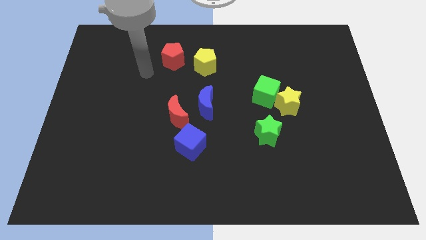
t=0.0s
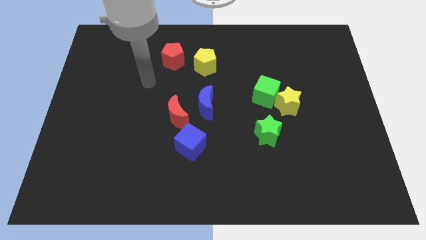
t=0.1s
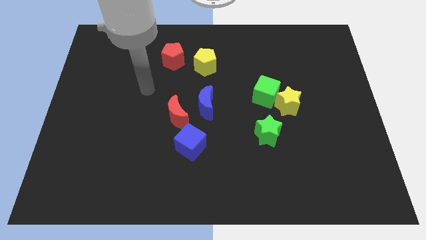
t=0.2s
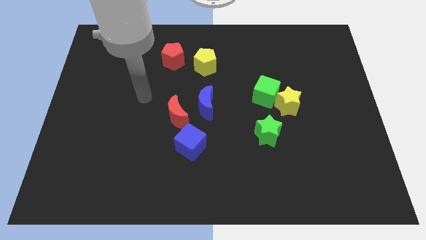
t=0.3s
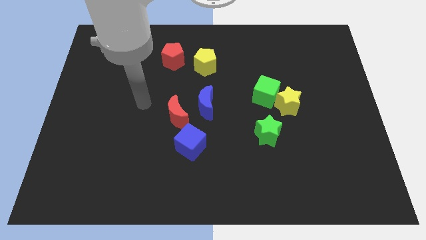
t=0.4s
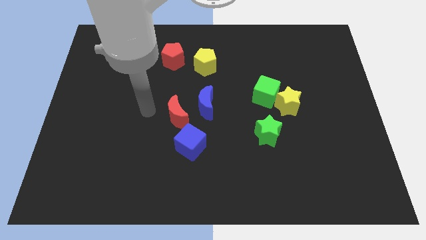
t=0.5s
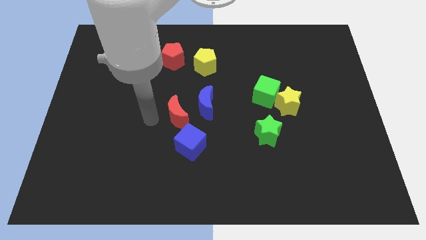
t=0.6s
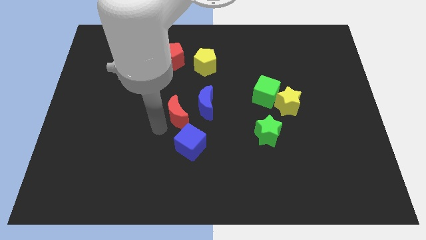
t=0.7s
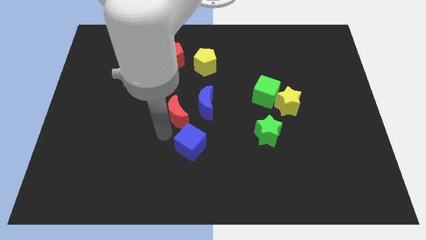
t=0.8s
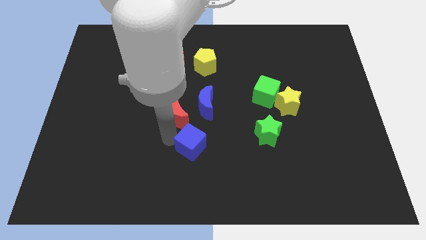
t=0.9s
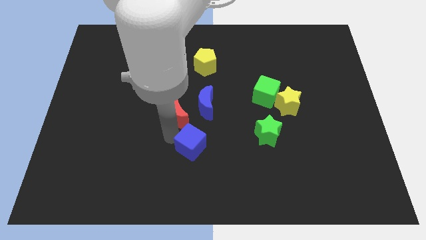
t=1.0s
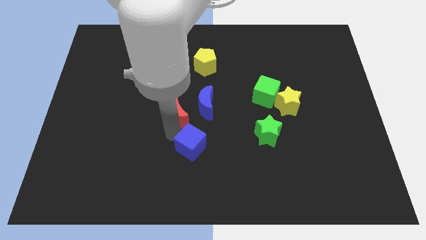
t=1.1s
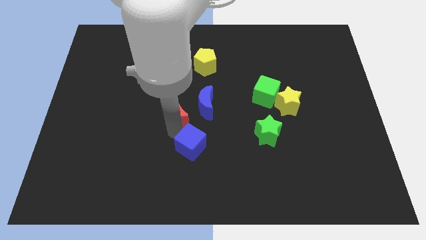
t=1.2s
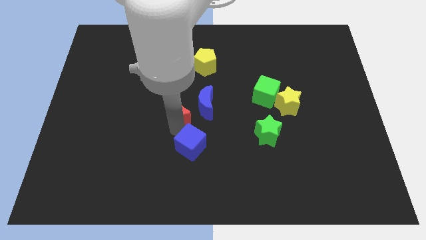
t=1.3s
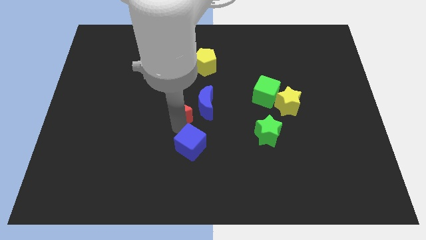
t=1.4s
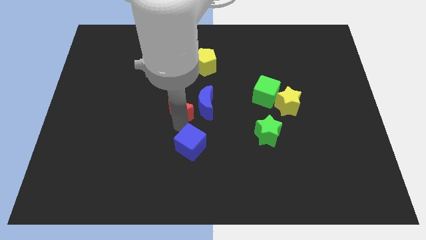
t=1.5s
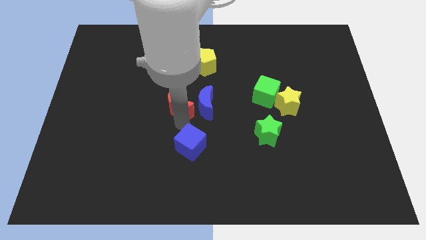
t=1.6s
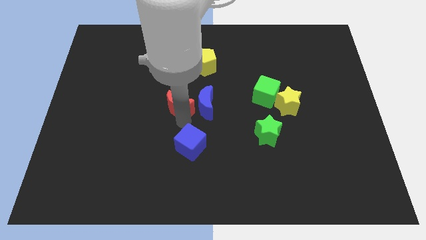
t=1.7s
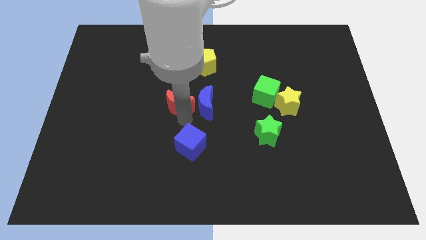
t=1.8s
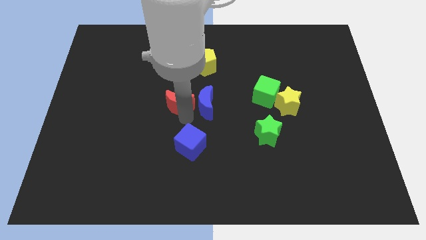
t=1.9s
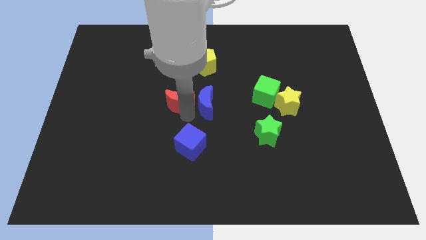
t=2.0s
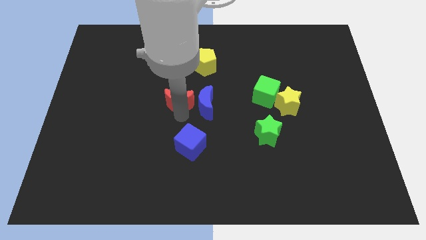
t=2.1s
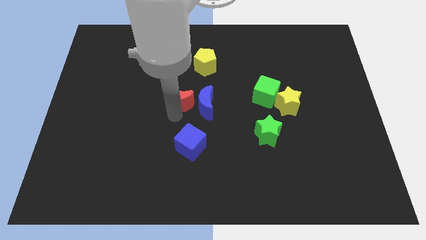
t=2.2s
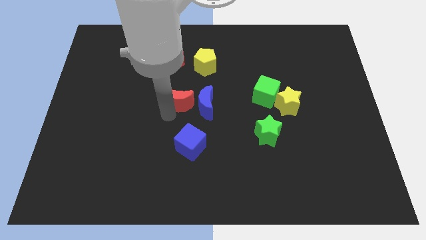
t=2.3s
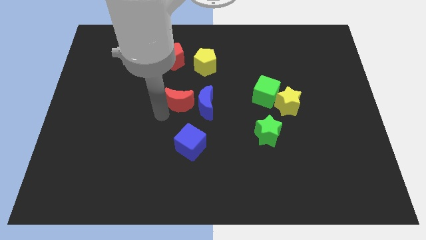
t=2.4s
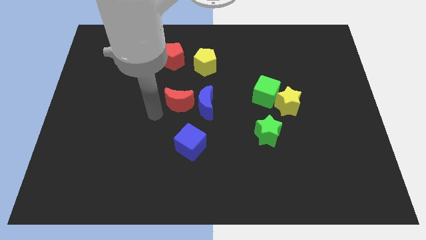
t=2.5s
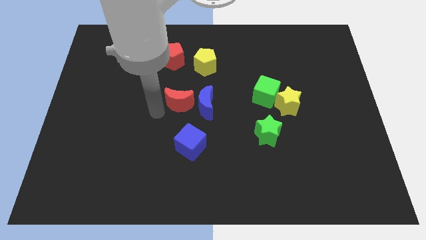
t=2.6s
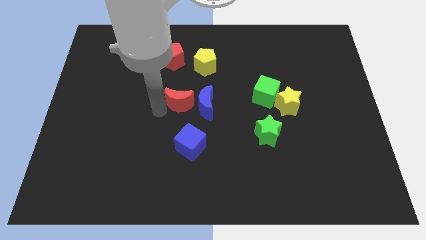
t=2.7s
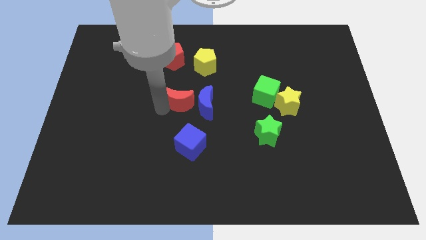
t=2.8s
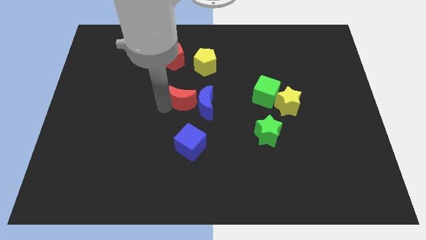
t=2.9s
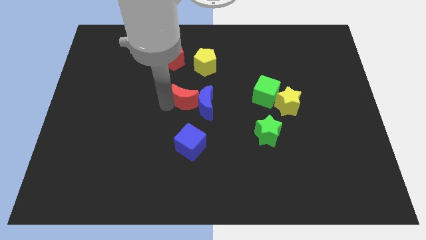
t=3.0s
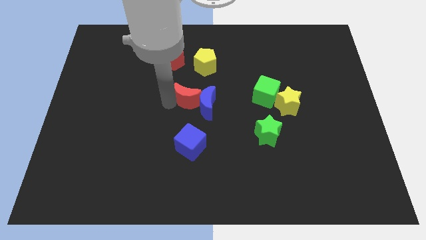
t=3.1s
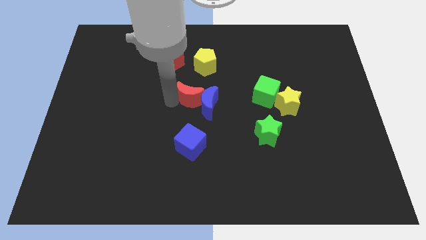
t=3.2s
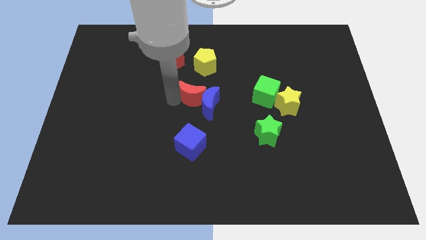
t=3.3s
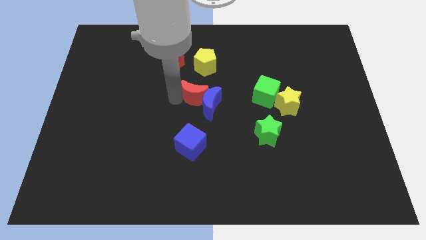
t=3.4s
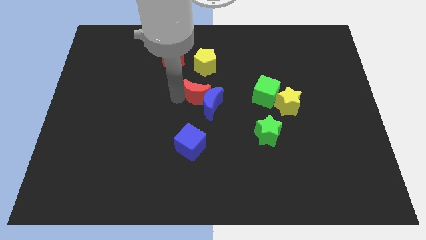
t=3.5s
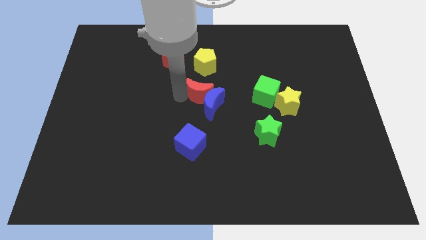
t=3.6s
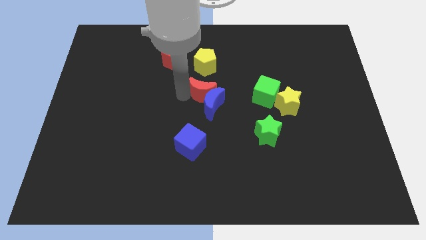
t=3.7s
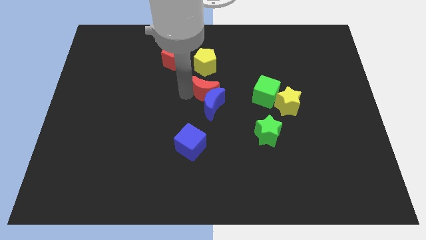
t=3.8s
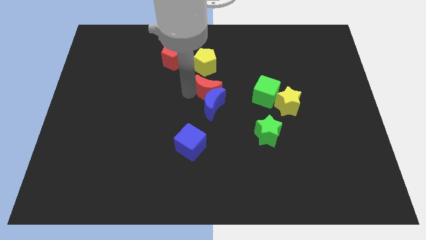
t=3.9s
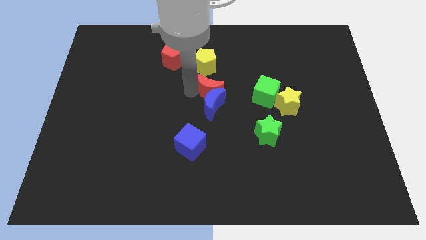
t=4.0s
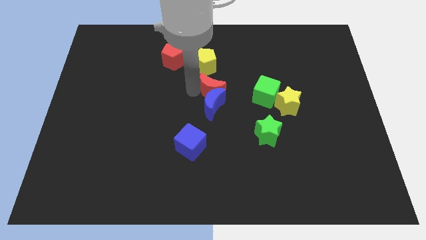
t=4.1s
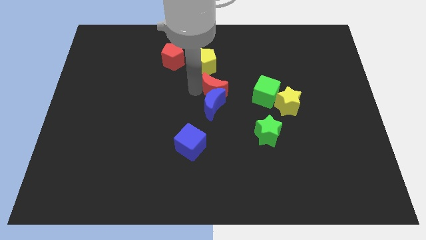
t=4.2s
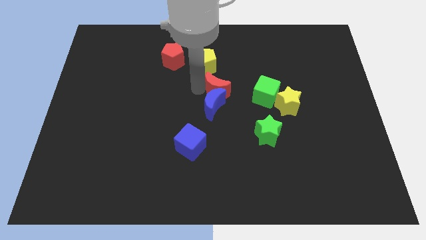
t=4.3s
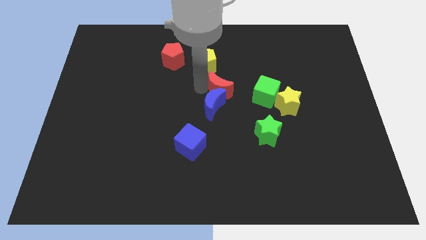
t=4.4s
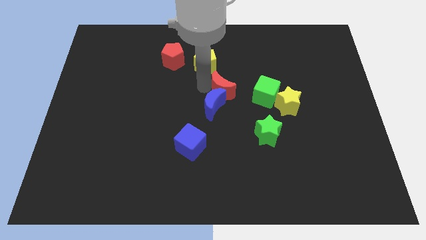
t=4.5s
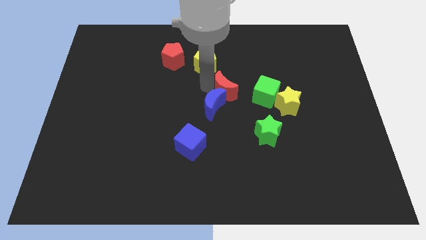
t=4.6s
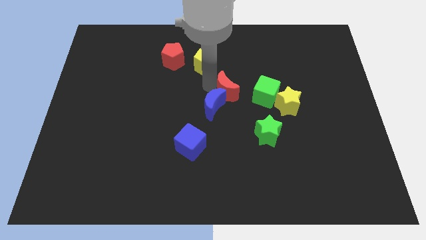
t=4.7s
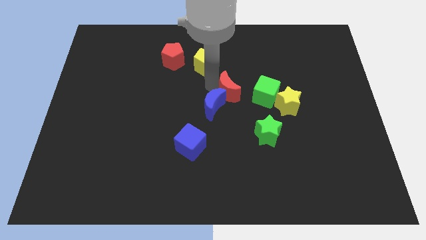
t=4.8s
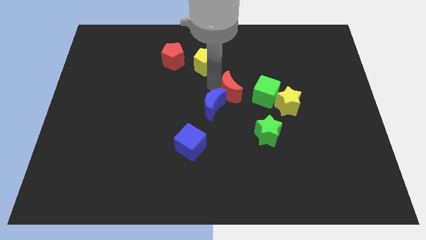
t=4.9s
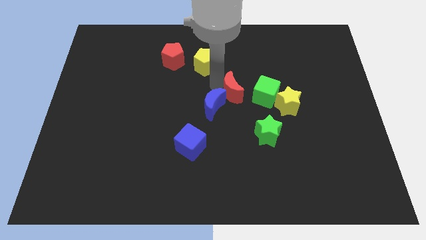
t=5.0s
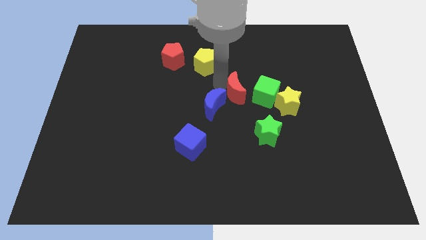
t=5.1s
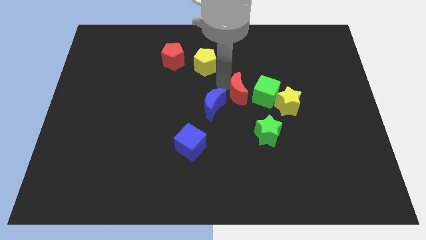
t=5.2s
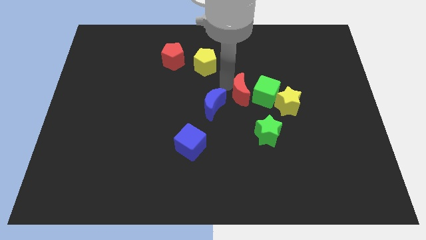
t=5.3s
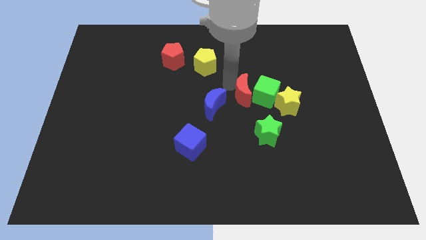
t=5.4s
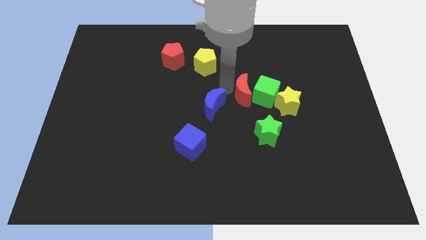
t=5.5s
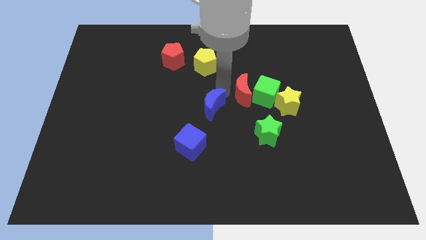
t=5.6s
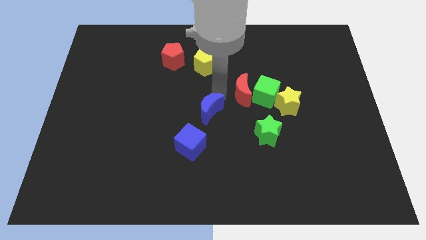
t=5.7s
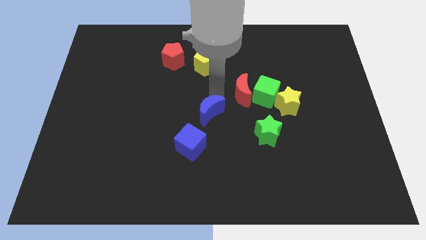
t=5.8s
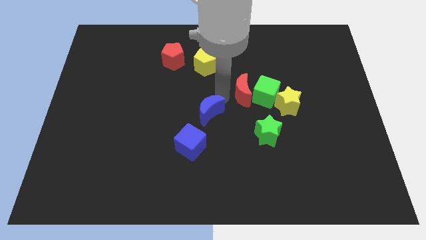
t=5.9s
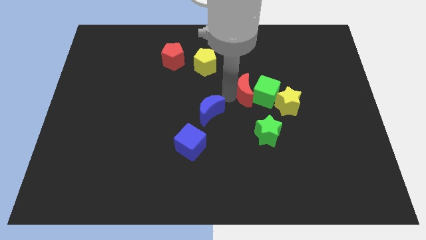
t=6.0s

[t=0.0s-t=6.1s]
push the red moon to the top left of the yellow star

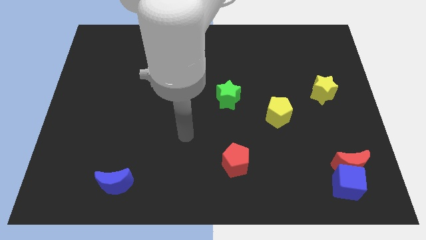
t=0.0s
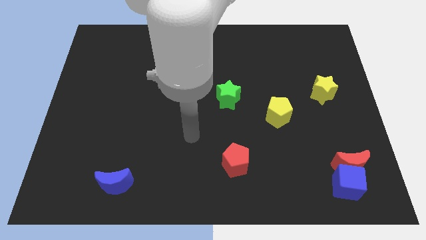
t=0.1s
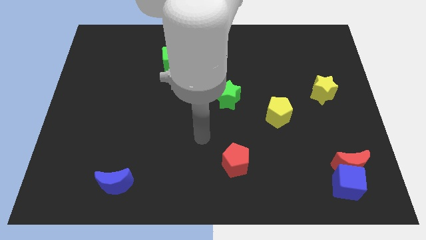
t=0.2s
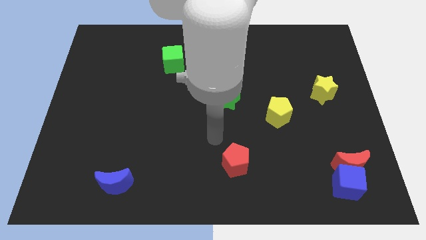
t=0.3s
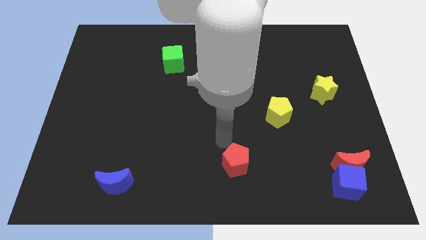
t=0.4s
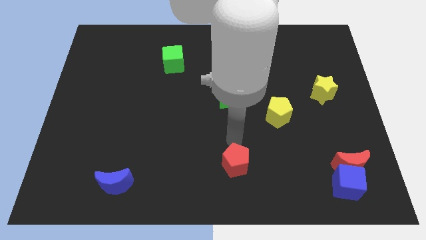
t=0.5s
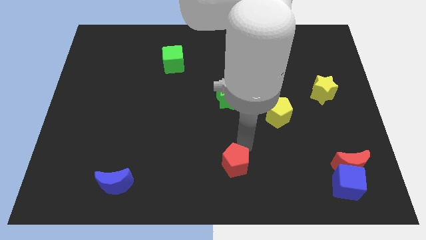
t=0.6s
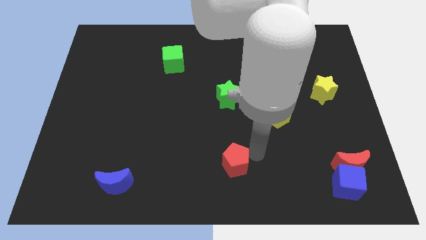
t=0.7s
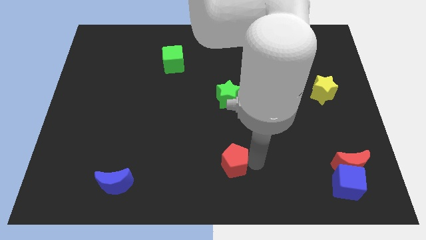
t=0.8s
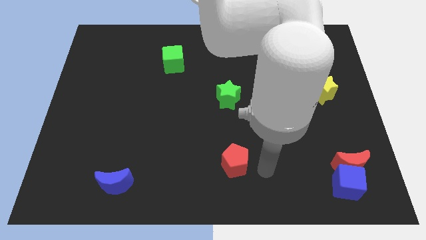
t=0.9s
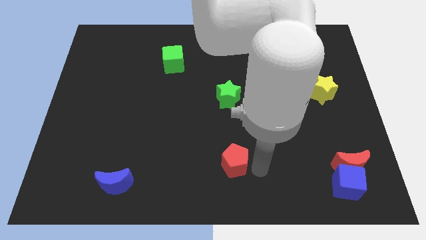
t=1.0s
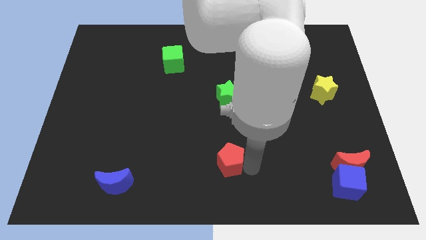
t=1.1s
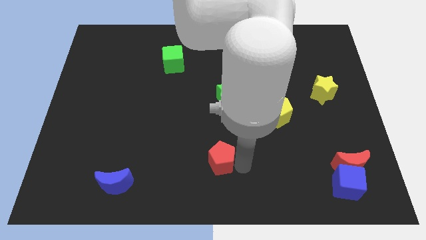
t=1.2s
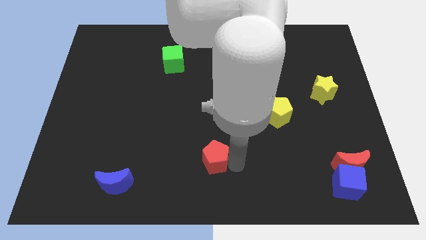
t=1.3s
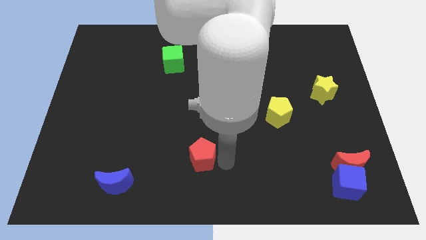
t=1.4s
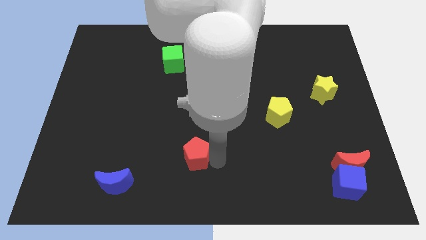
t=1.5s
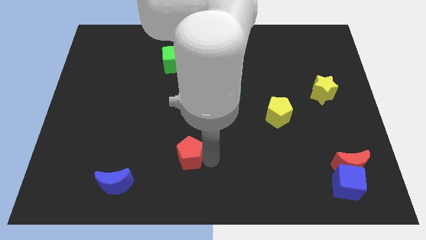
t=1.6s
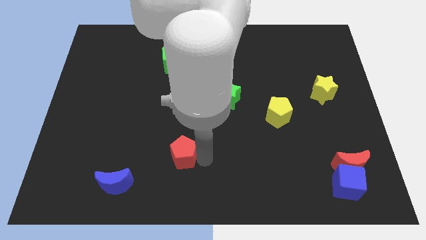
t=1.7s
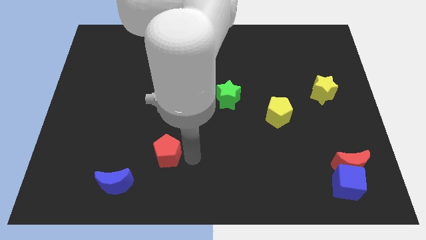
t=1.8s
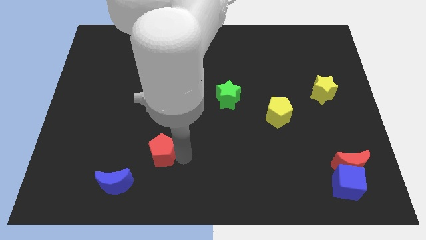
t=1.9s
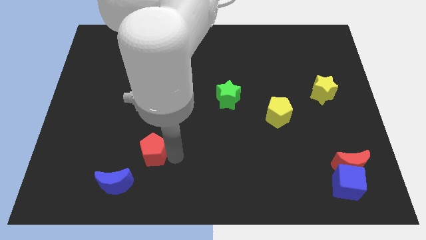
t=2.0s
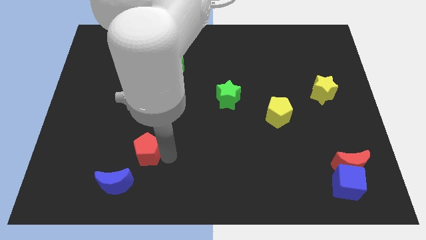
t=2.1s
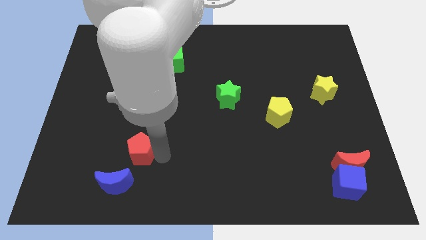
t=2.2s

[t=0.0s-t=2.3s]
slide the red pentagon above the blue moon
